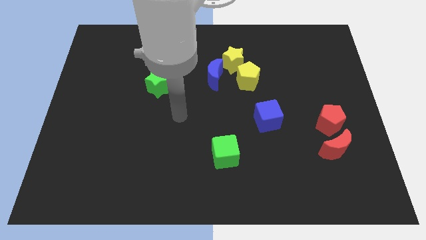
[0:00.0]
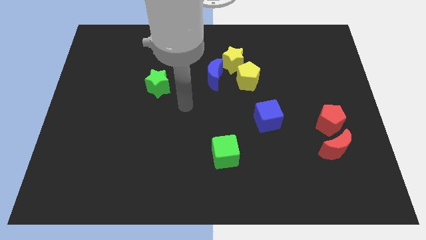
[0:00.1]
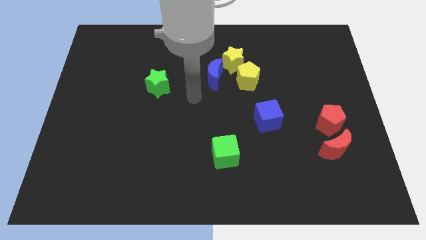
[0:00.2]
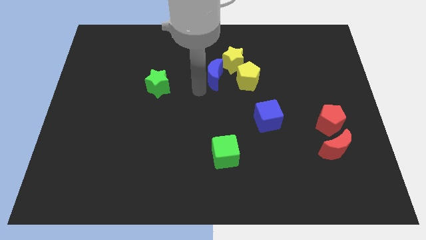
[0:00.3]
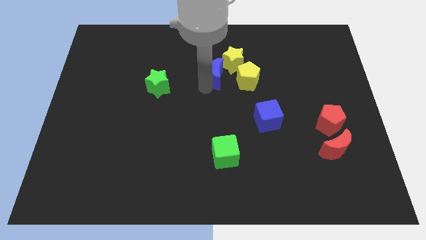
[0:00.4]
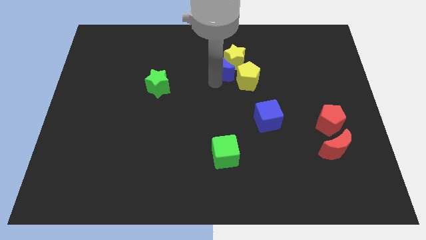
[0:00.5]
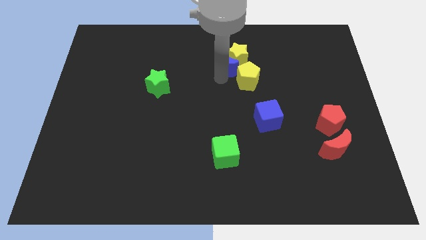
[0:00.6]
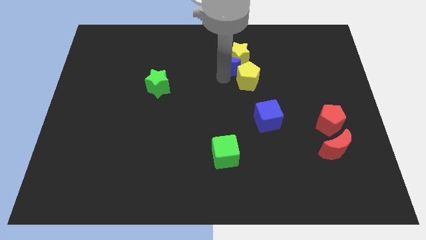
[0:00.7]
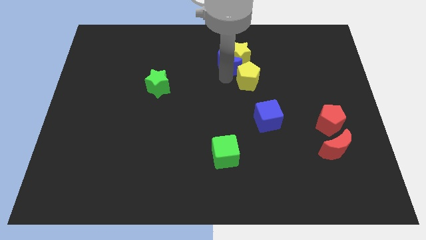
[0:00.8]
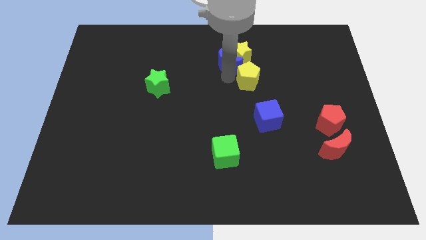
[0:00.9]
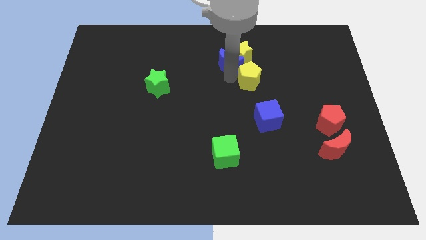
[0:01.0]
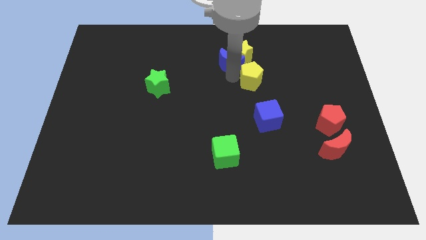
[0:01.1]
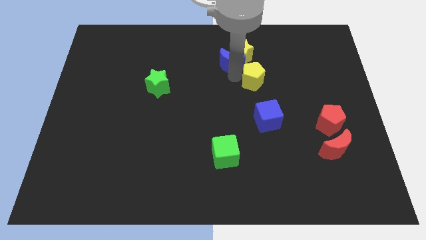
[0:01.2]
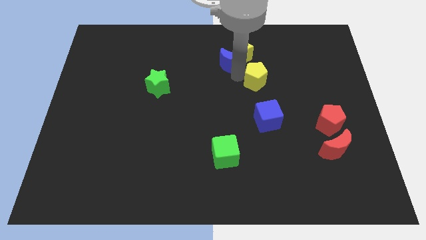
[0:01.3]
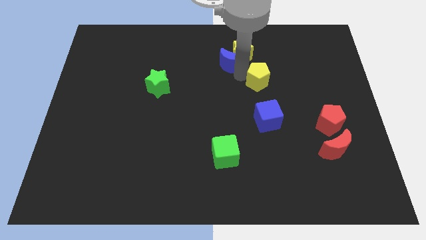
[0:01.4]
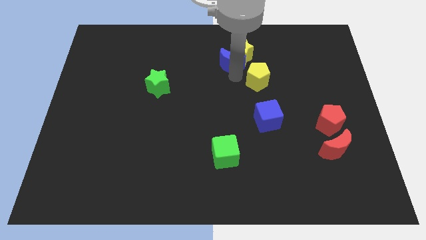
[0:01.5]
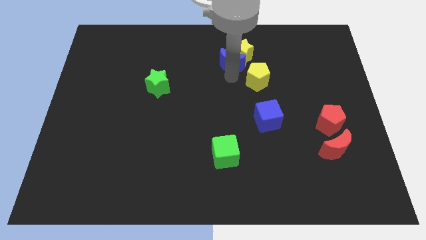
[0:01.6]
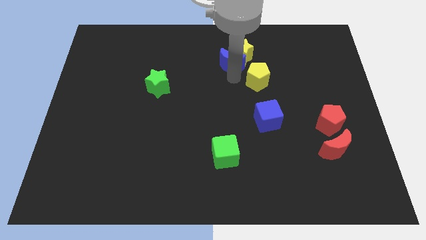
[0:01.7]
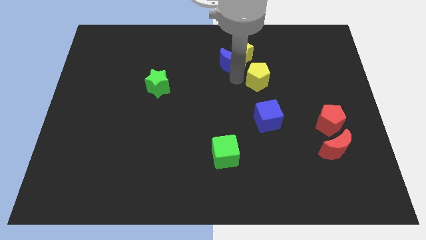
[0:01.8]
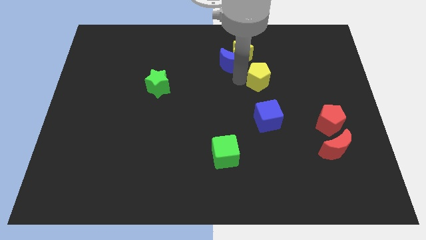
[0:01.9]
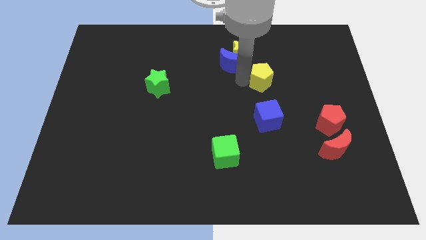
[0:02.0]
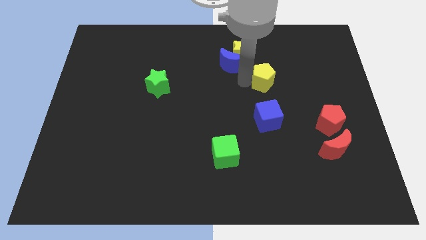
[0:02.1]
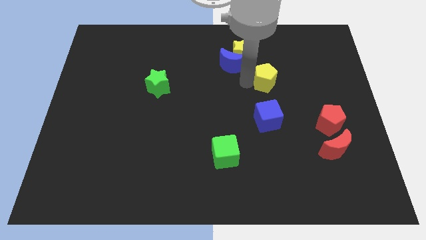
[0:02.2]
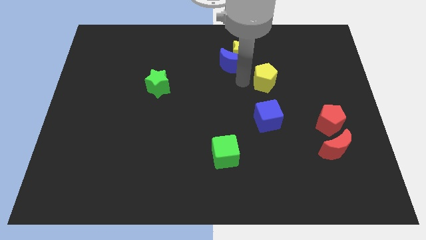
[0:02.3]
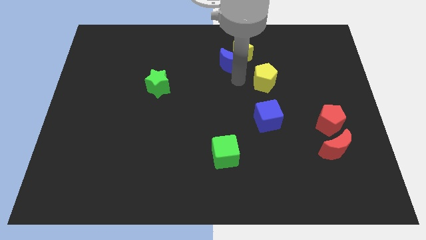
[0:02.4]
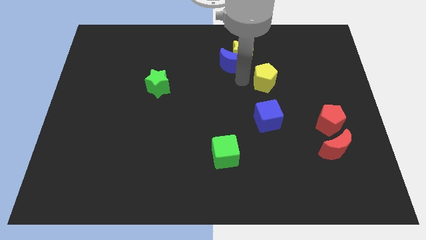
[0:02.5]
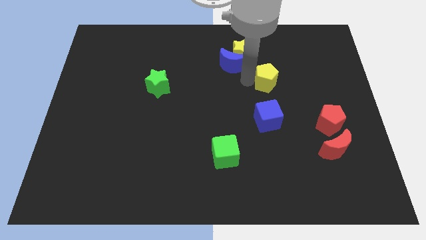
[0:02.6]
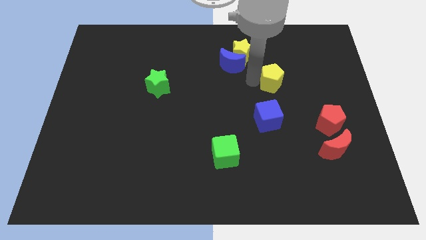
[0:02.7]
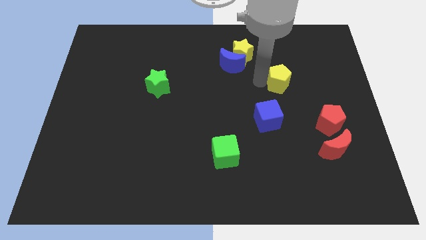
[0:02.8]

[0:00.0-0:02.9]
slide the yellow pentagon to the right a little

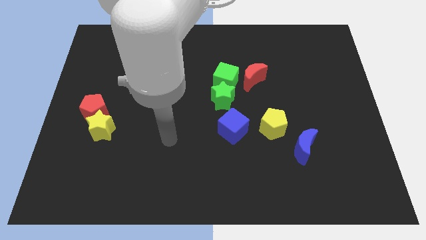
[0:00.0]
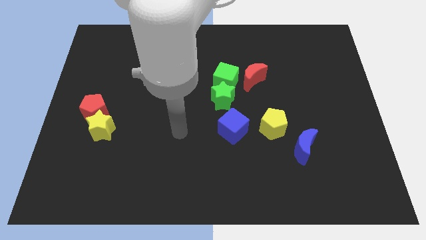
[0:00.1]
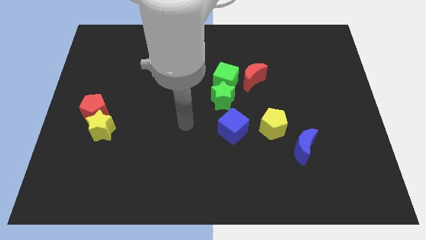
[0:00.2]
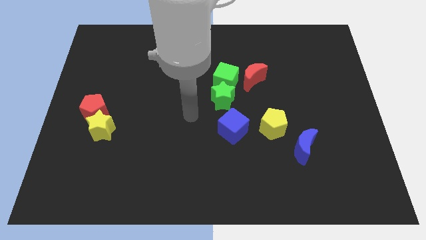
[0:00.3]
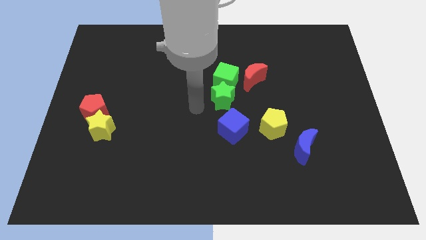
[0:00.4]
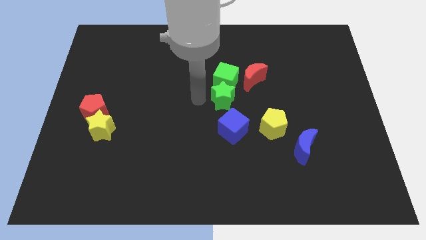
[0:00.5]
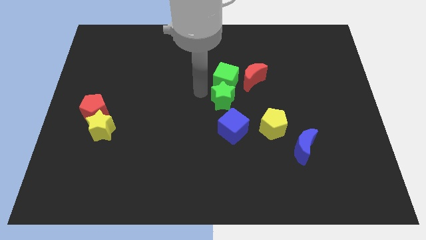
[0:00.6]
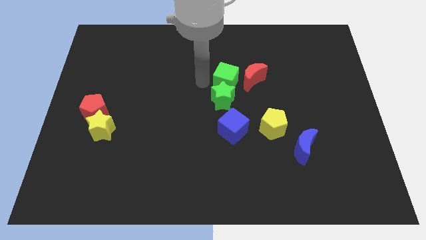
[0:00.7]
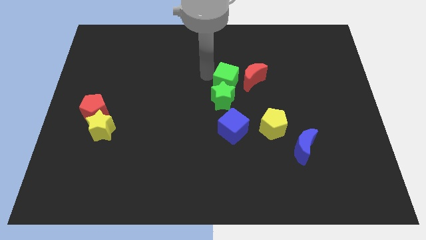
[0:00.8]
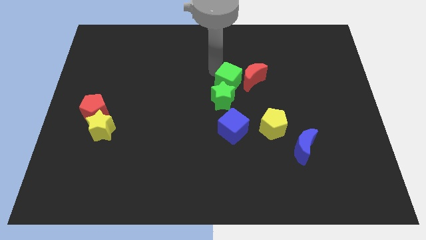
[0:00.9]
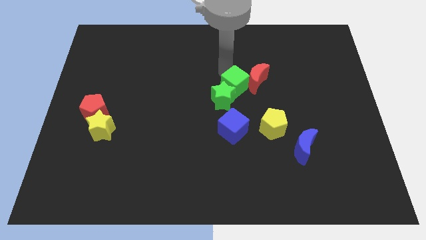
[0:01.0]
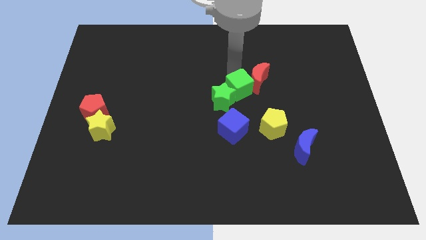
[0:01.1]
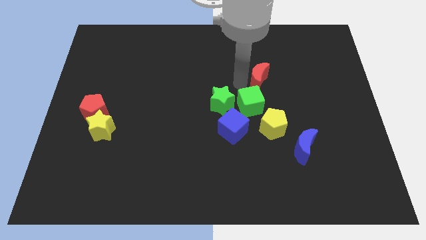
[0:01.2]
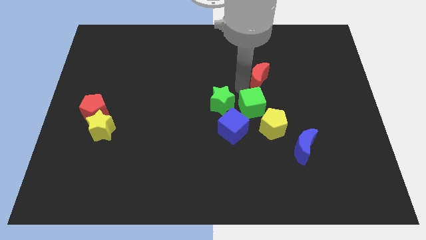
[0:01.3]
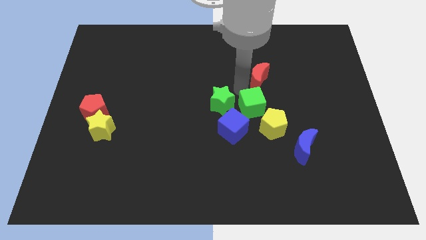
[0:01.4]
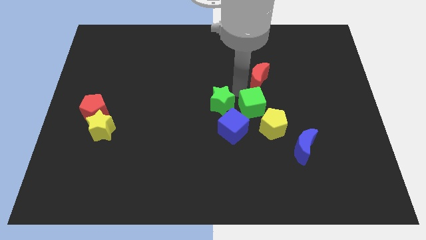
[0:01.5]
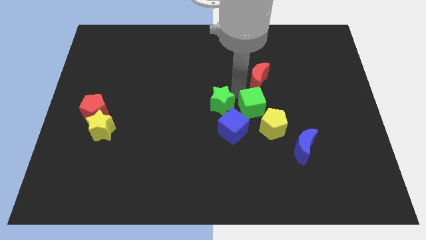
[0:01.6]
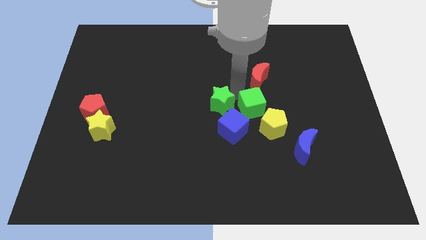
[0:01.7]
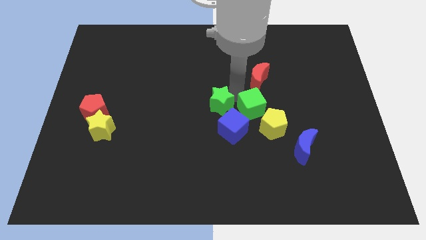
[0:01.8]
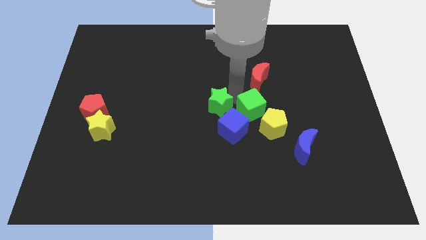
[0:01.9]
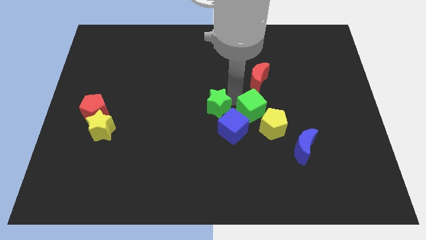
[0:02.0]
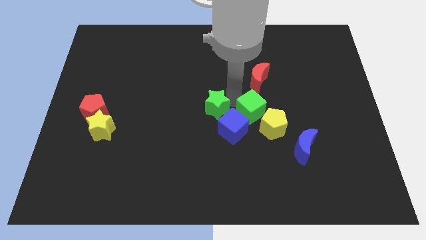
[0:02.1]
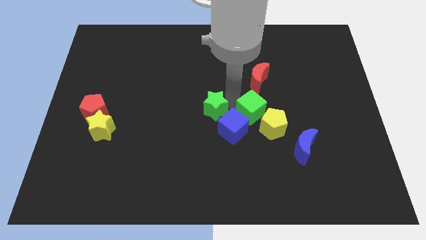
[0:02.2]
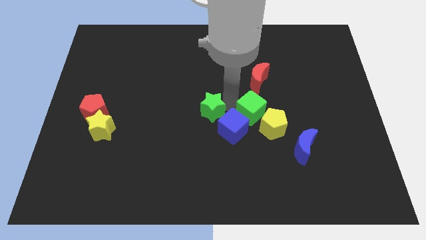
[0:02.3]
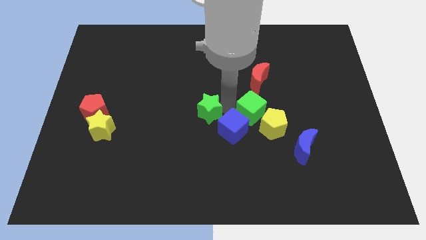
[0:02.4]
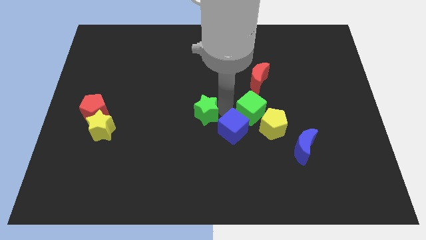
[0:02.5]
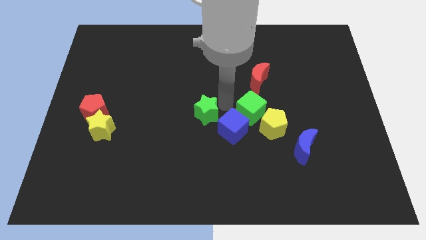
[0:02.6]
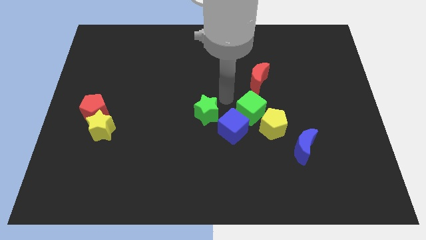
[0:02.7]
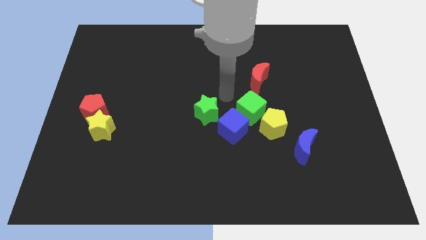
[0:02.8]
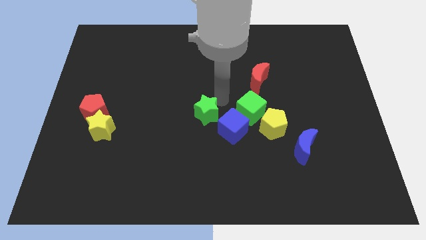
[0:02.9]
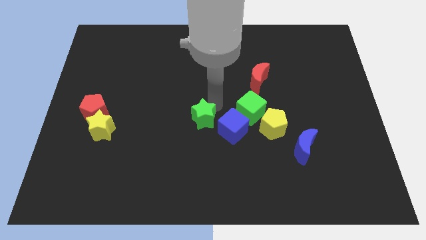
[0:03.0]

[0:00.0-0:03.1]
push the green star downwards and then to the left a little bit

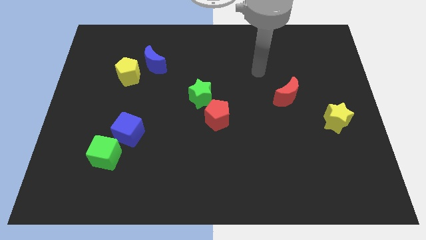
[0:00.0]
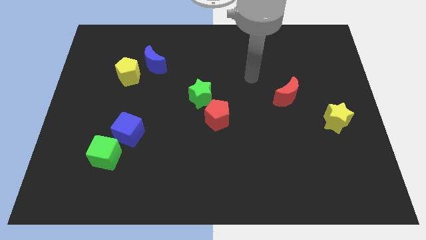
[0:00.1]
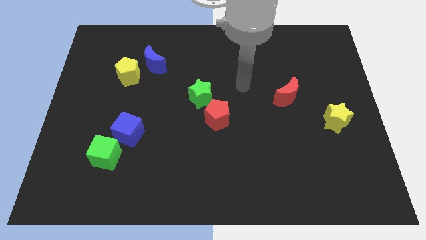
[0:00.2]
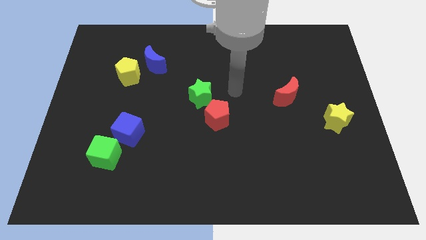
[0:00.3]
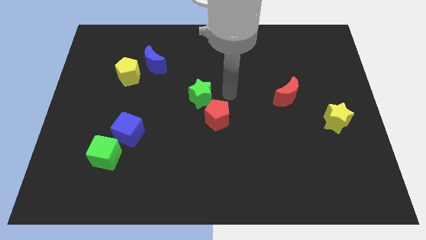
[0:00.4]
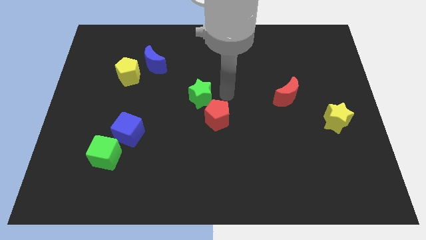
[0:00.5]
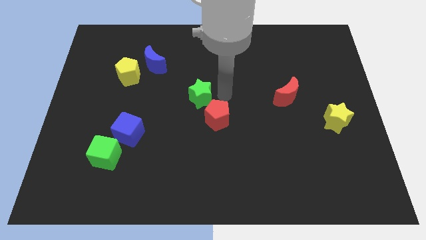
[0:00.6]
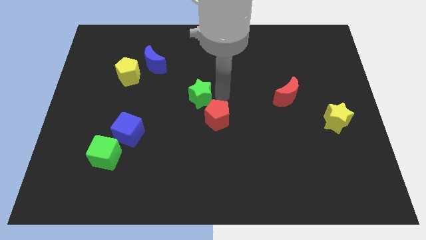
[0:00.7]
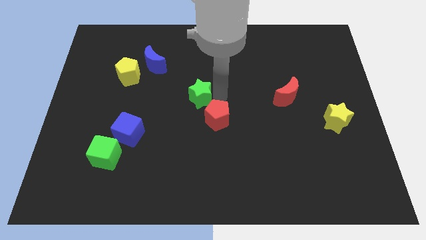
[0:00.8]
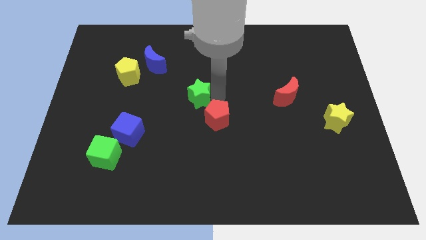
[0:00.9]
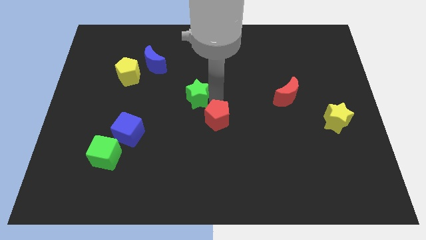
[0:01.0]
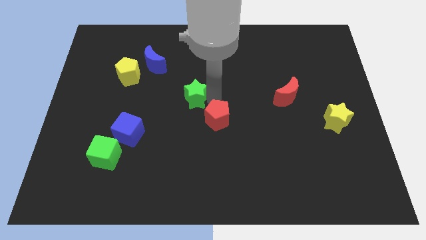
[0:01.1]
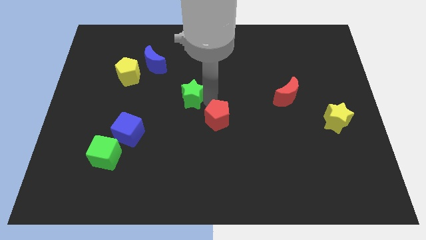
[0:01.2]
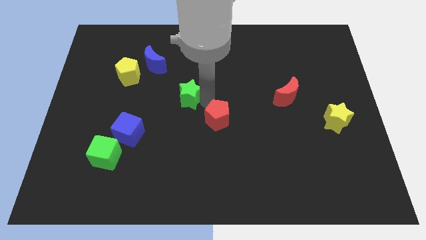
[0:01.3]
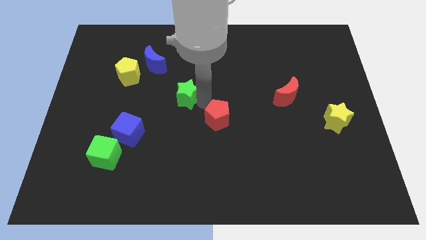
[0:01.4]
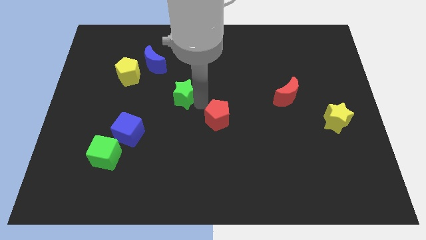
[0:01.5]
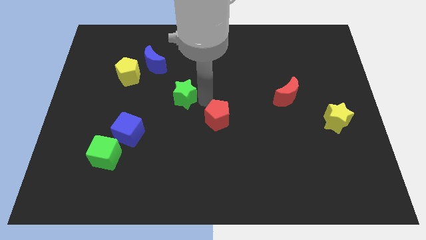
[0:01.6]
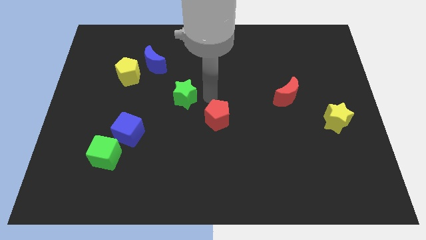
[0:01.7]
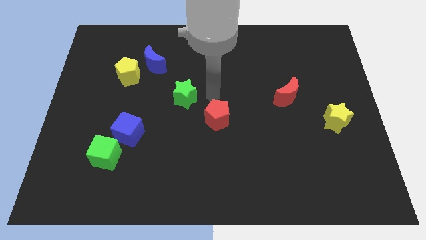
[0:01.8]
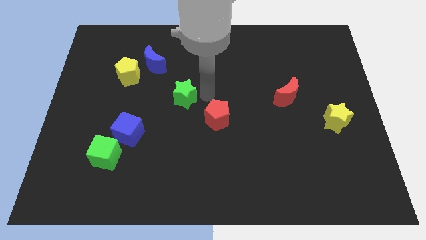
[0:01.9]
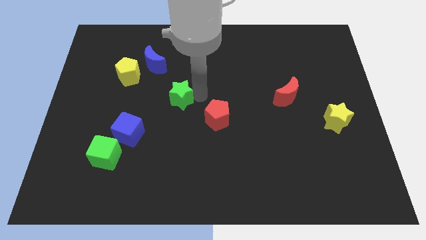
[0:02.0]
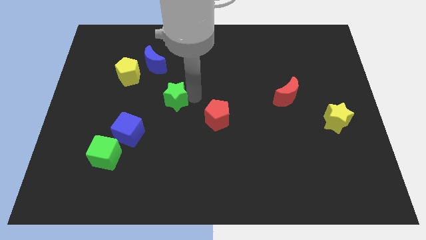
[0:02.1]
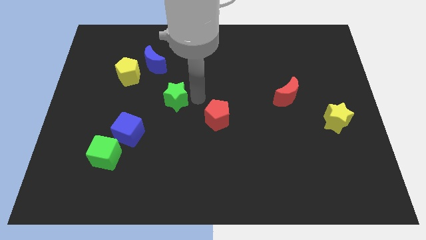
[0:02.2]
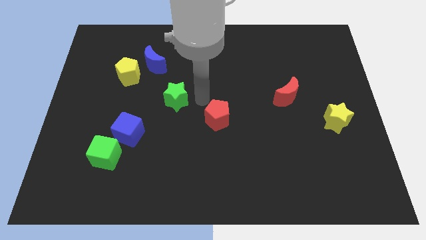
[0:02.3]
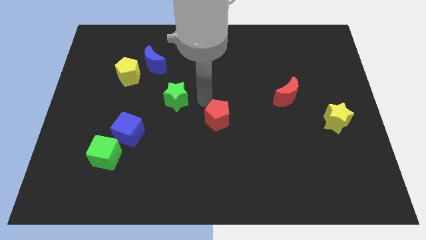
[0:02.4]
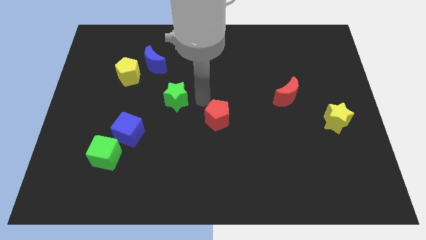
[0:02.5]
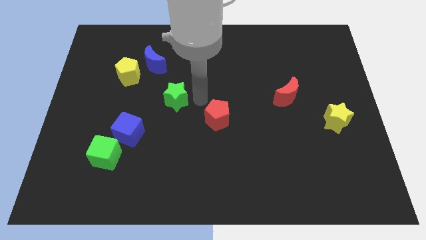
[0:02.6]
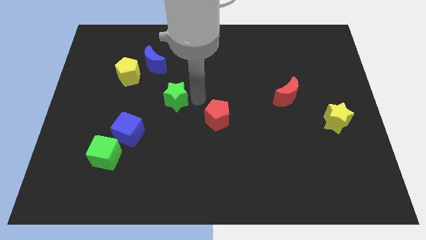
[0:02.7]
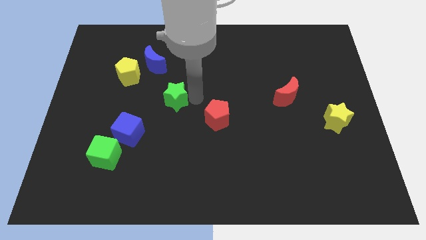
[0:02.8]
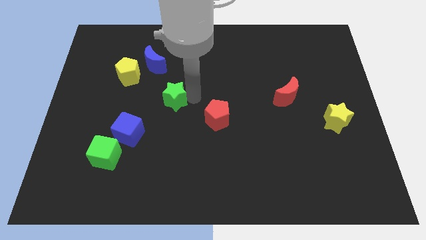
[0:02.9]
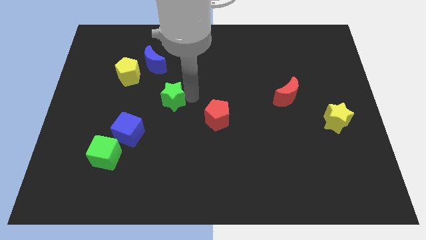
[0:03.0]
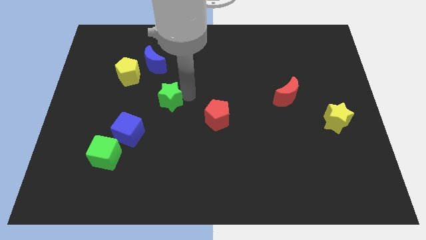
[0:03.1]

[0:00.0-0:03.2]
move the green star a little bit left
